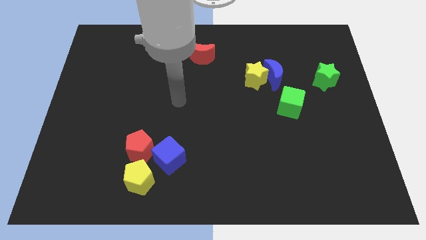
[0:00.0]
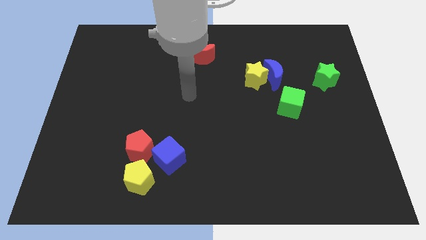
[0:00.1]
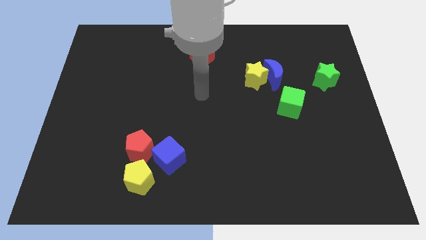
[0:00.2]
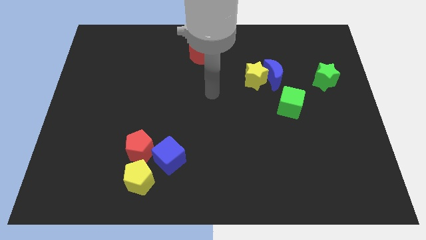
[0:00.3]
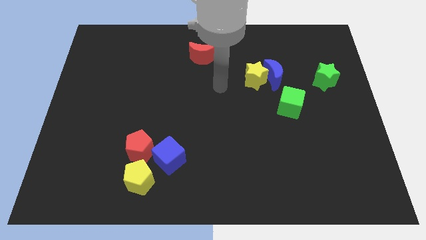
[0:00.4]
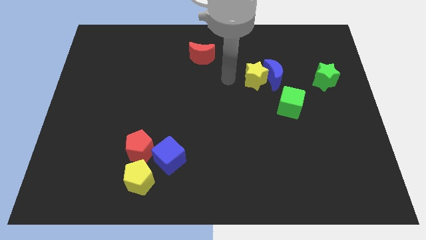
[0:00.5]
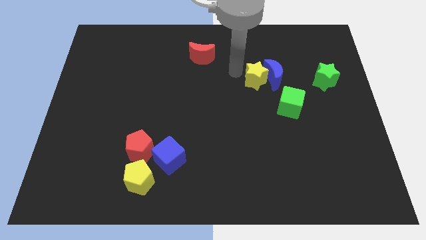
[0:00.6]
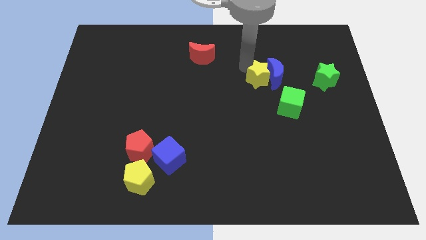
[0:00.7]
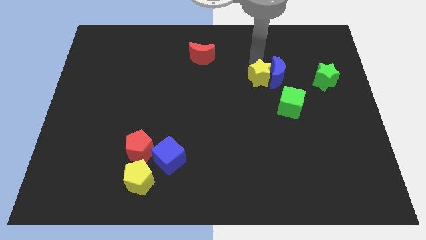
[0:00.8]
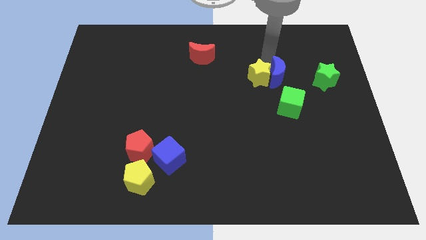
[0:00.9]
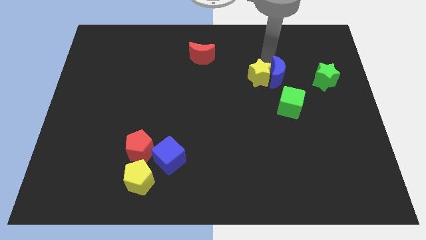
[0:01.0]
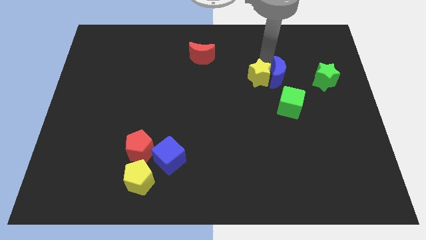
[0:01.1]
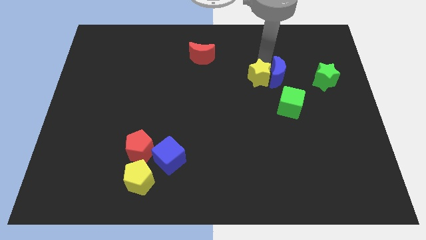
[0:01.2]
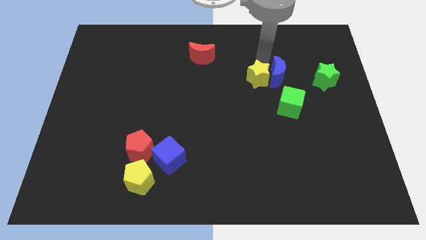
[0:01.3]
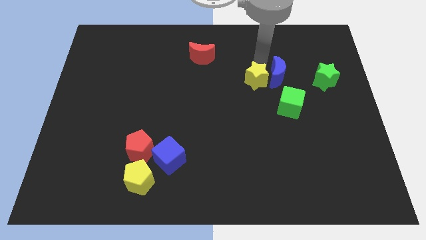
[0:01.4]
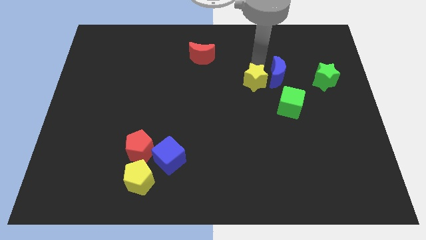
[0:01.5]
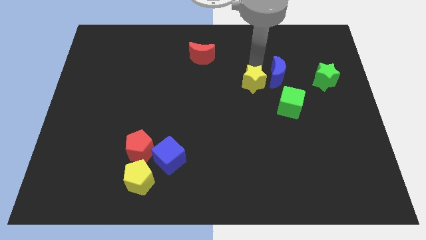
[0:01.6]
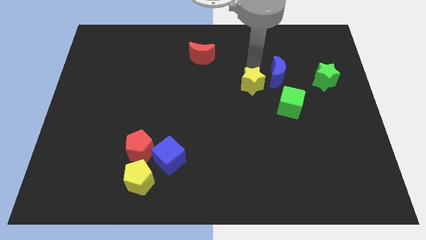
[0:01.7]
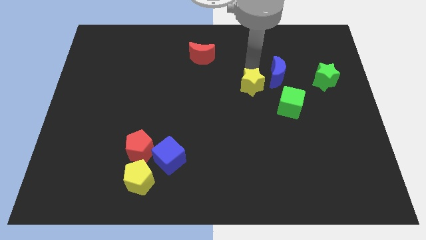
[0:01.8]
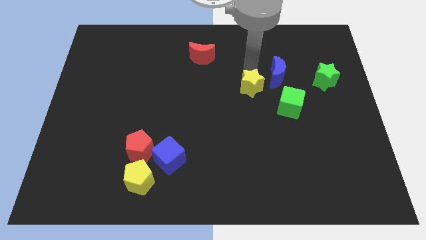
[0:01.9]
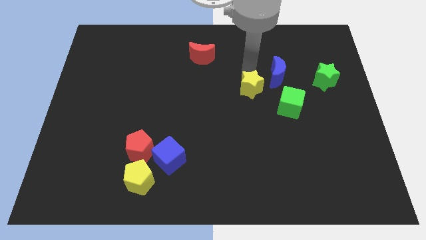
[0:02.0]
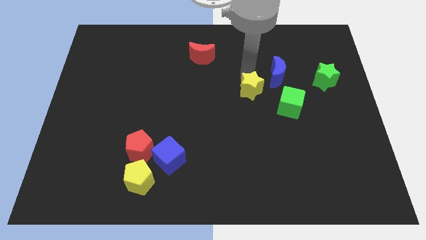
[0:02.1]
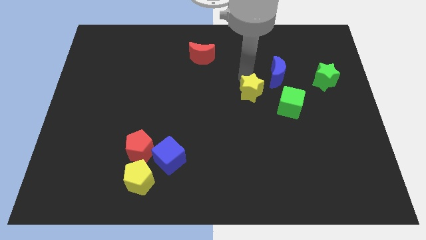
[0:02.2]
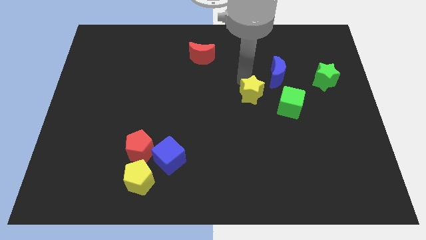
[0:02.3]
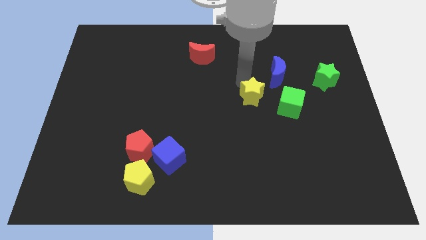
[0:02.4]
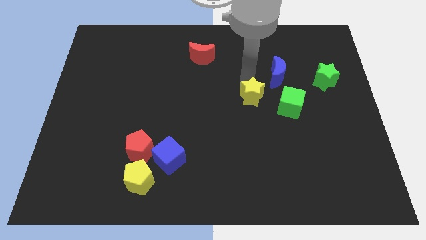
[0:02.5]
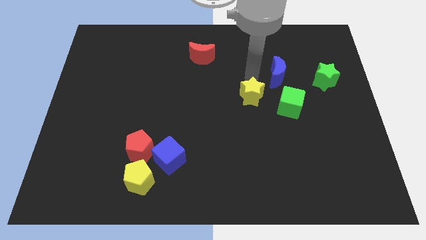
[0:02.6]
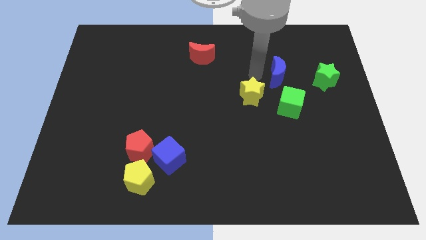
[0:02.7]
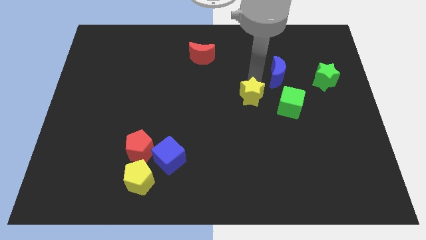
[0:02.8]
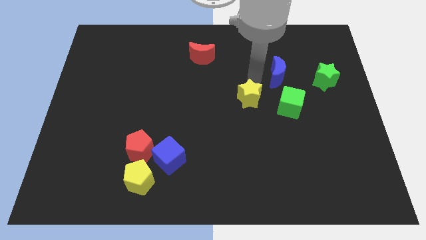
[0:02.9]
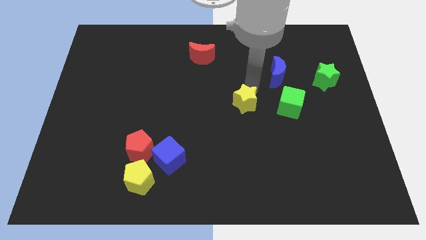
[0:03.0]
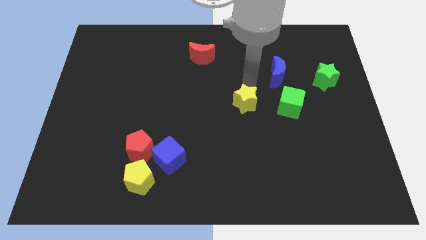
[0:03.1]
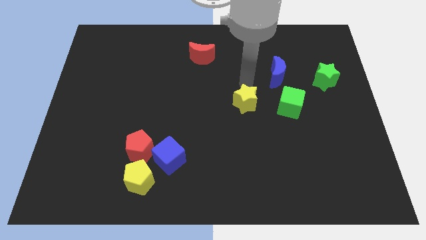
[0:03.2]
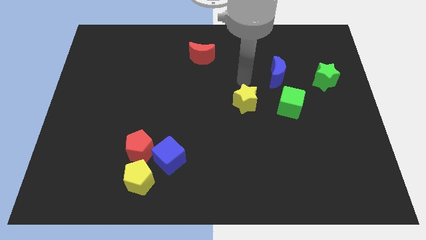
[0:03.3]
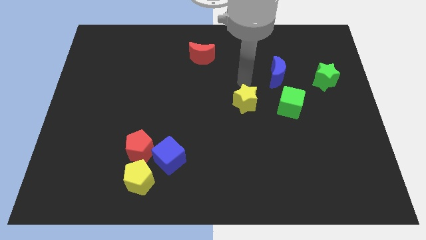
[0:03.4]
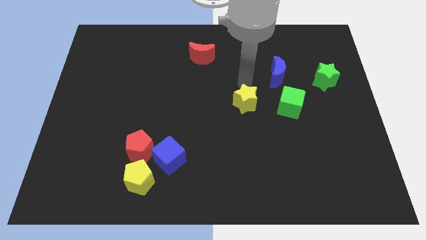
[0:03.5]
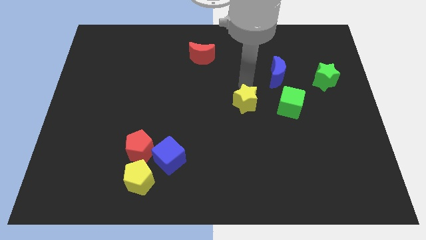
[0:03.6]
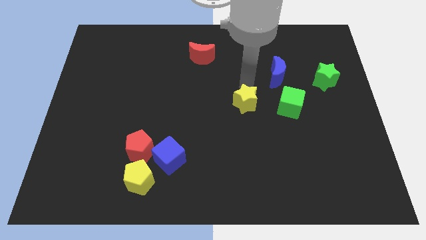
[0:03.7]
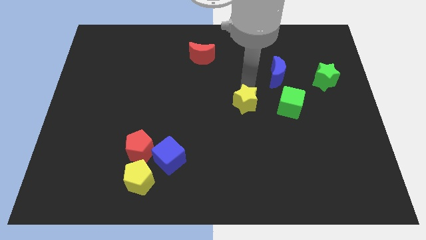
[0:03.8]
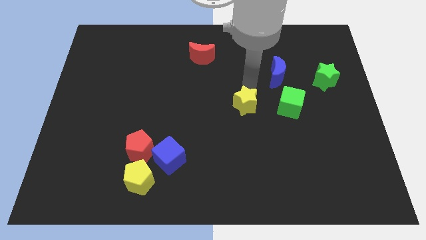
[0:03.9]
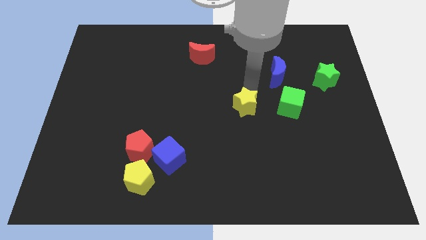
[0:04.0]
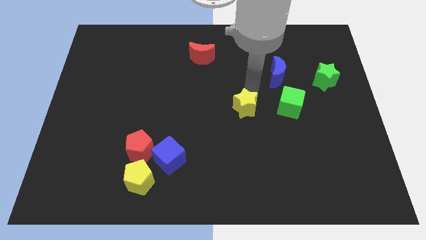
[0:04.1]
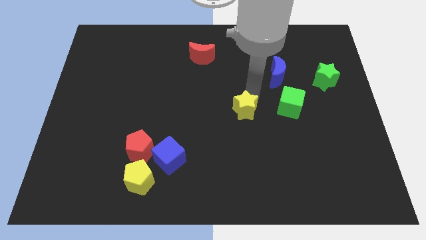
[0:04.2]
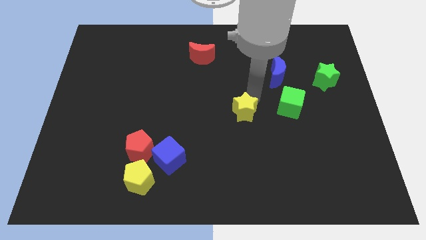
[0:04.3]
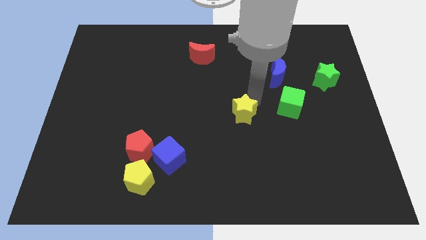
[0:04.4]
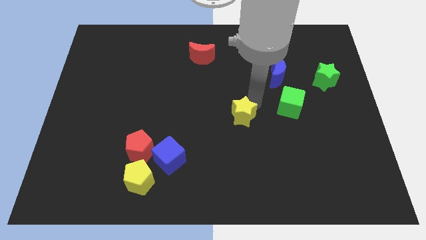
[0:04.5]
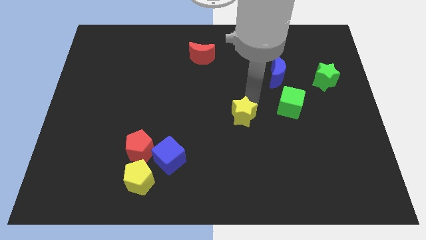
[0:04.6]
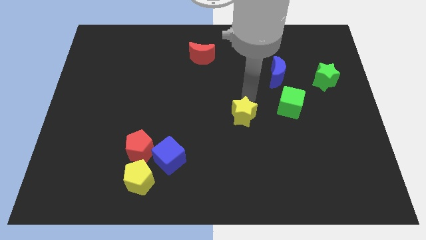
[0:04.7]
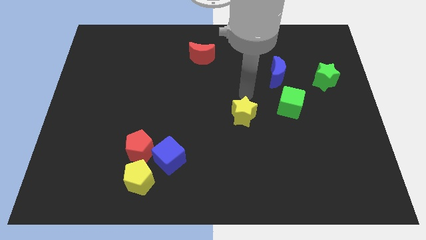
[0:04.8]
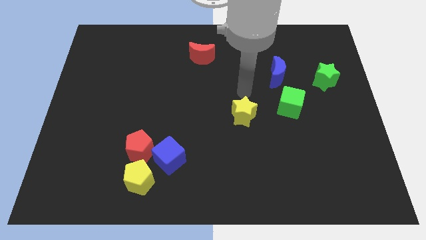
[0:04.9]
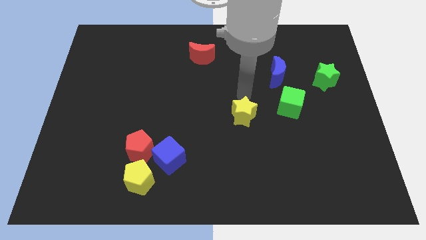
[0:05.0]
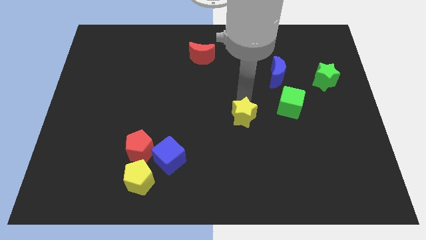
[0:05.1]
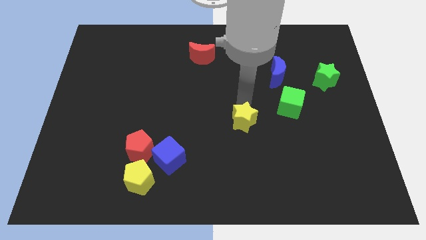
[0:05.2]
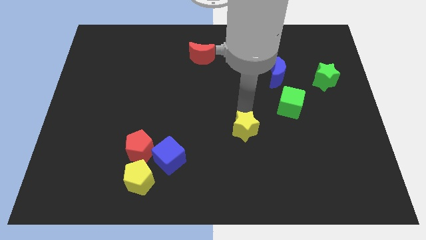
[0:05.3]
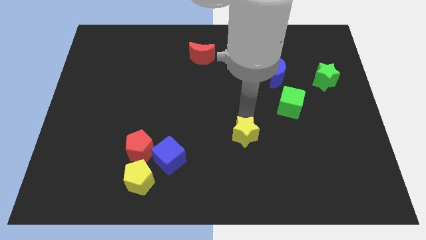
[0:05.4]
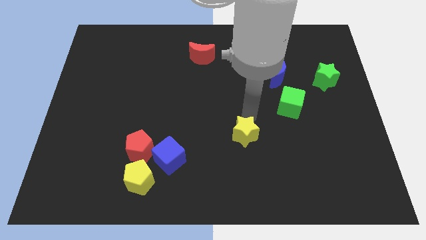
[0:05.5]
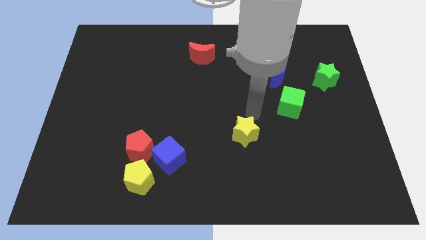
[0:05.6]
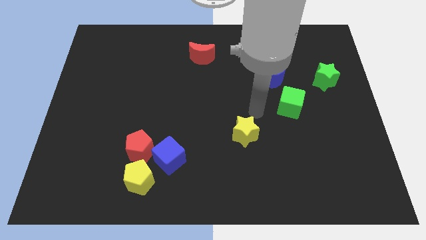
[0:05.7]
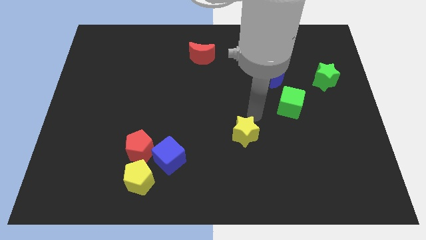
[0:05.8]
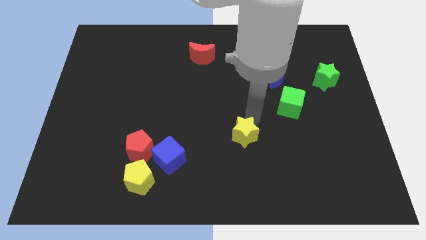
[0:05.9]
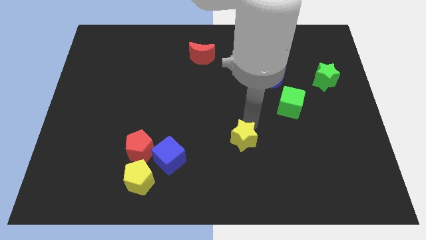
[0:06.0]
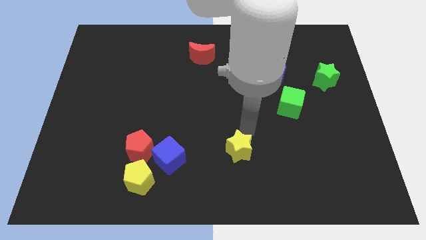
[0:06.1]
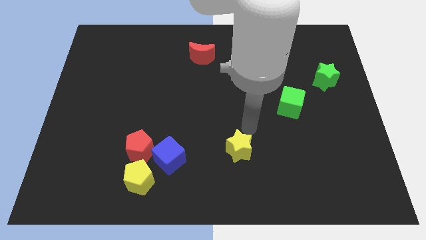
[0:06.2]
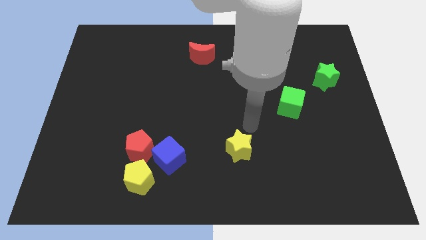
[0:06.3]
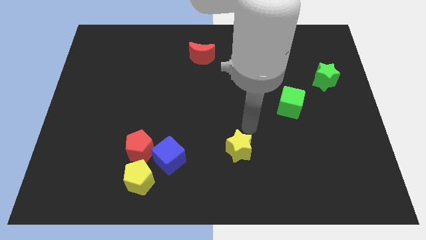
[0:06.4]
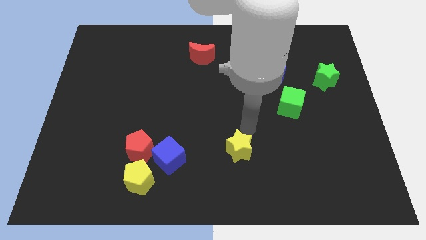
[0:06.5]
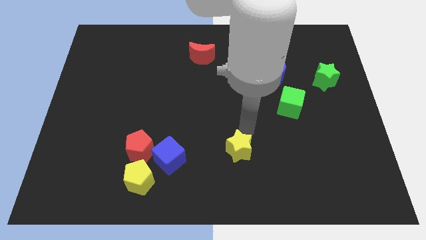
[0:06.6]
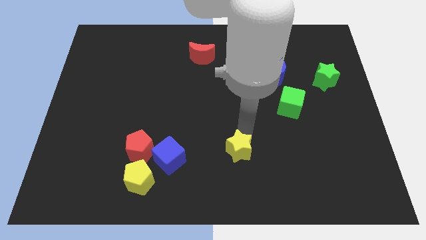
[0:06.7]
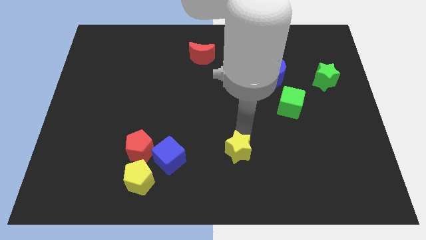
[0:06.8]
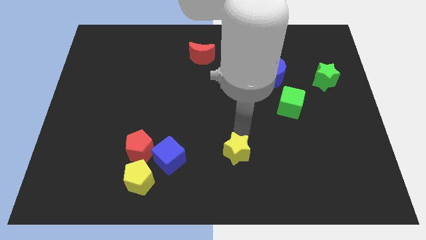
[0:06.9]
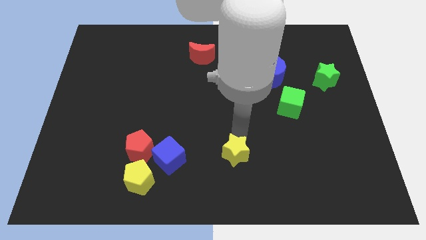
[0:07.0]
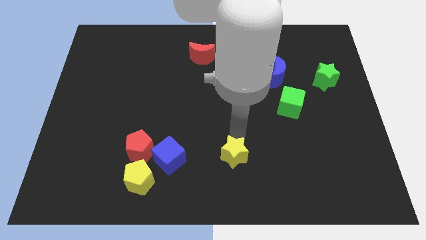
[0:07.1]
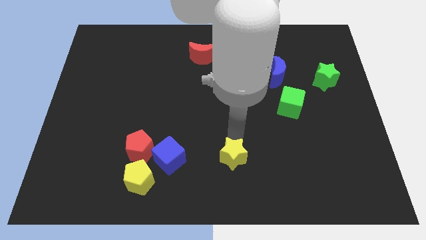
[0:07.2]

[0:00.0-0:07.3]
move the yellow star to the bottom

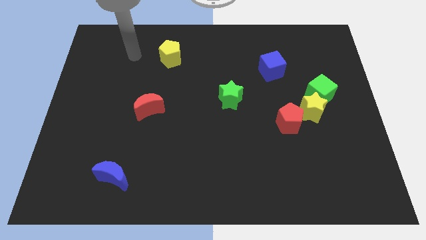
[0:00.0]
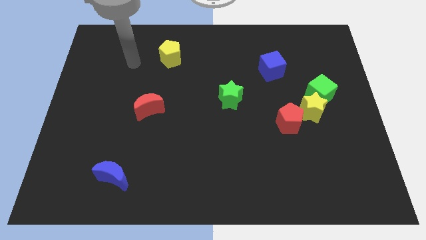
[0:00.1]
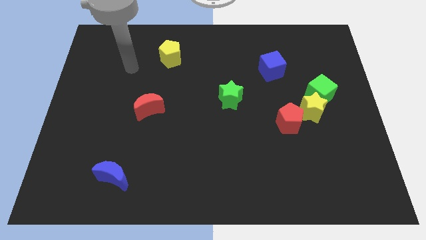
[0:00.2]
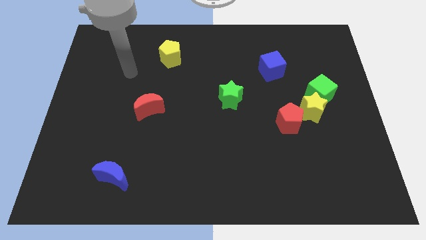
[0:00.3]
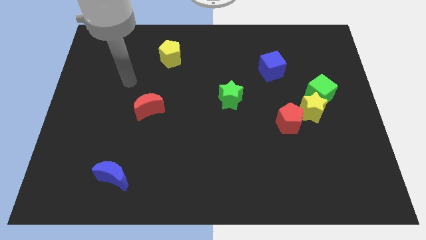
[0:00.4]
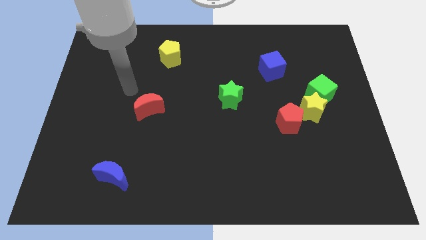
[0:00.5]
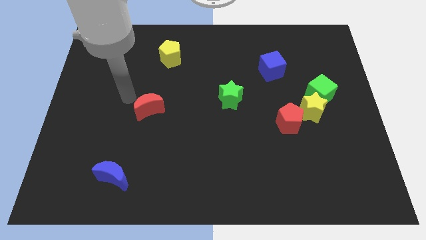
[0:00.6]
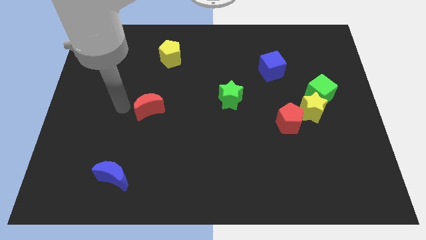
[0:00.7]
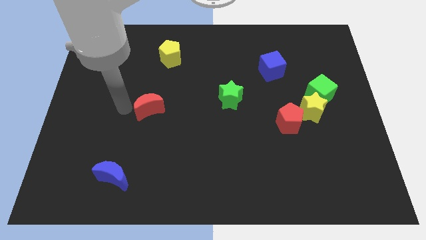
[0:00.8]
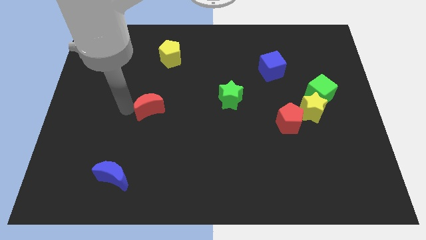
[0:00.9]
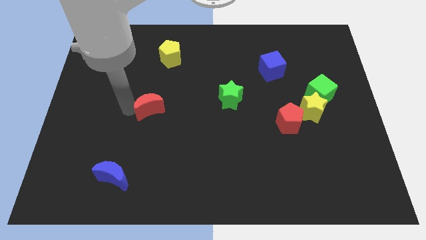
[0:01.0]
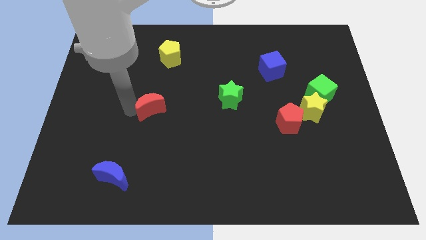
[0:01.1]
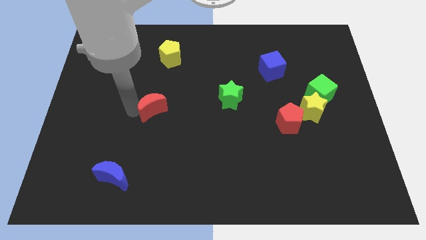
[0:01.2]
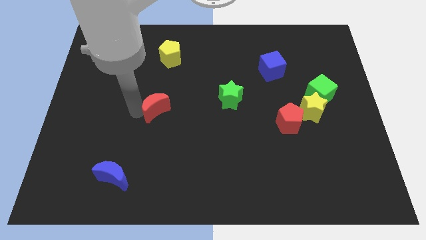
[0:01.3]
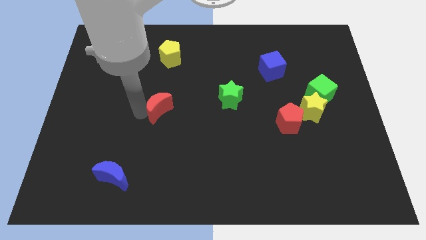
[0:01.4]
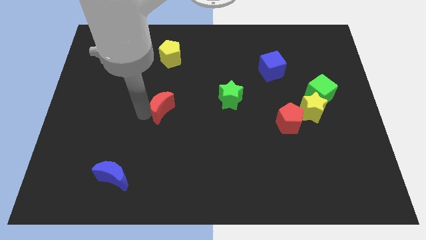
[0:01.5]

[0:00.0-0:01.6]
push the red moon to the center of the board
